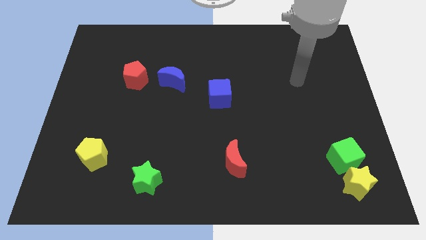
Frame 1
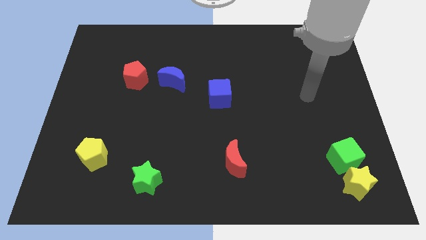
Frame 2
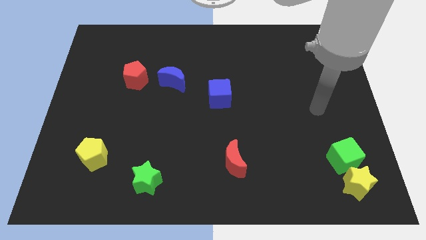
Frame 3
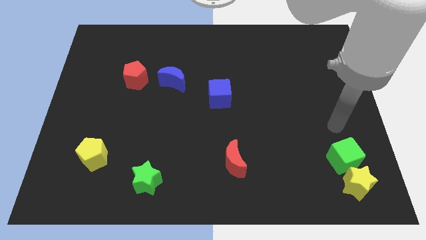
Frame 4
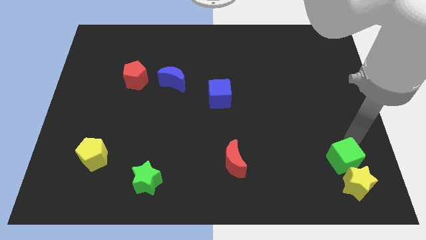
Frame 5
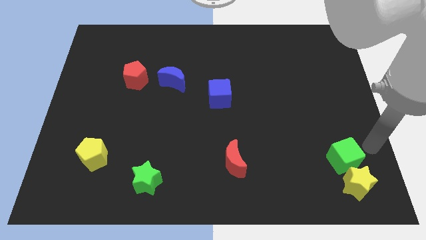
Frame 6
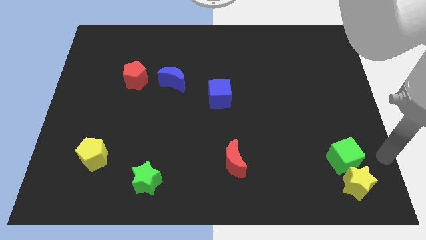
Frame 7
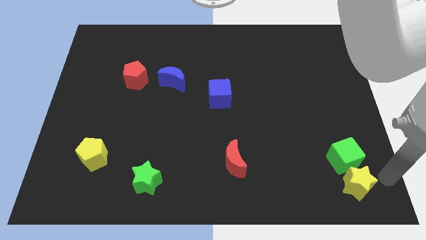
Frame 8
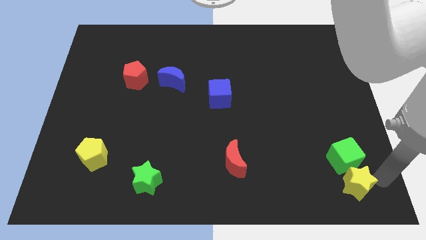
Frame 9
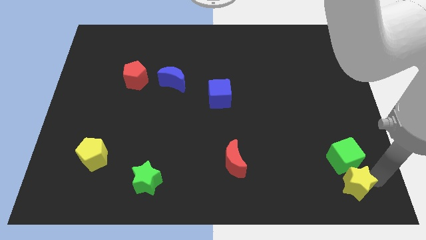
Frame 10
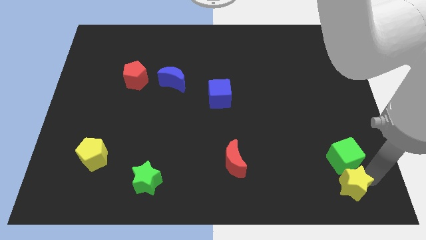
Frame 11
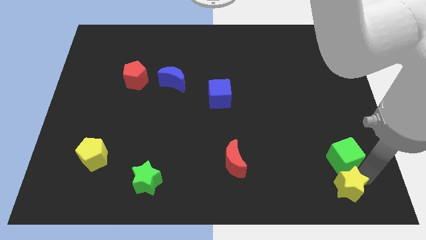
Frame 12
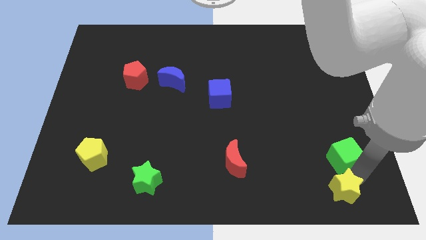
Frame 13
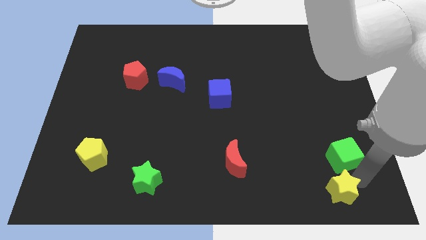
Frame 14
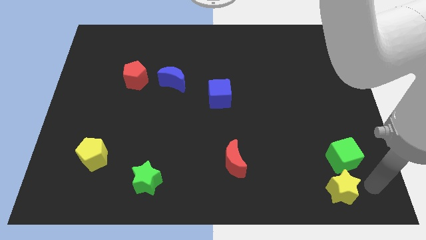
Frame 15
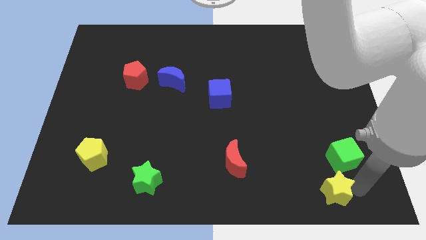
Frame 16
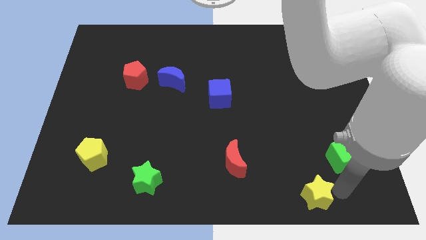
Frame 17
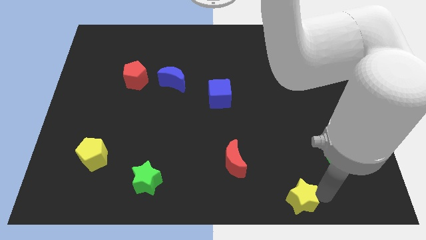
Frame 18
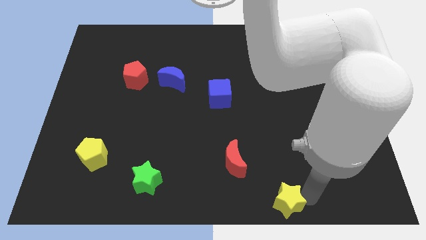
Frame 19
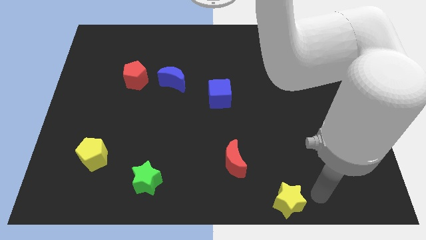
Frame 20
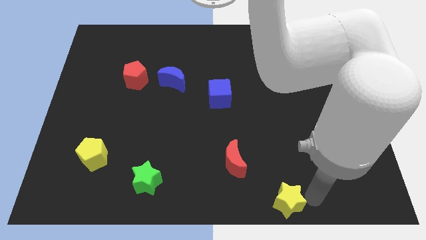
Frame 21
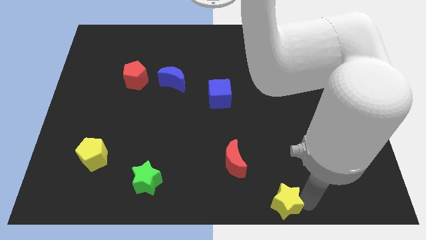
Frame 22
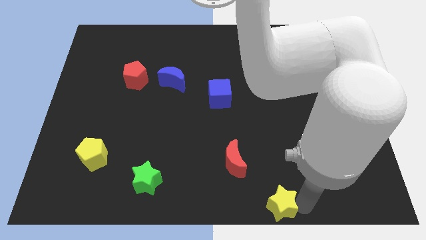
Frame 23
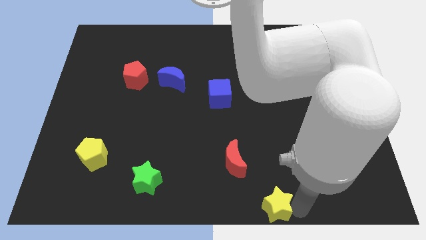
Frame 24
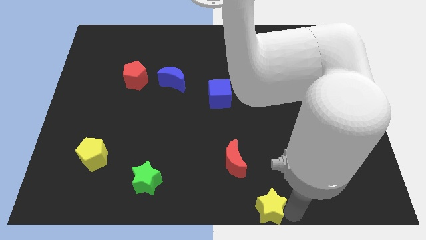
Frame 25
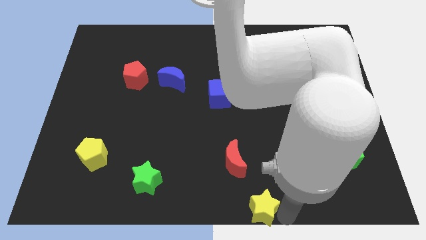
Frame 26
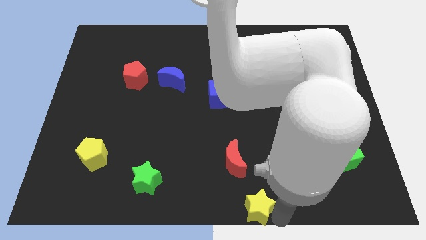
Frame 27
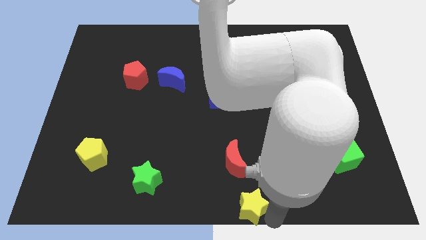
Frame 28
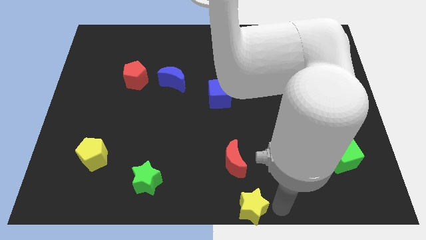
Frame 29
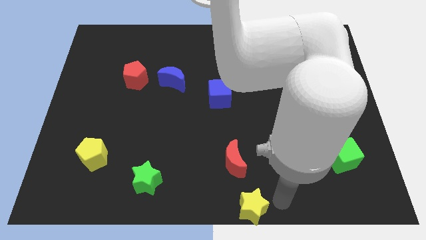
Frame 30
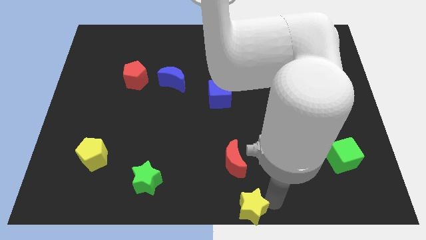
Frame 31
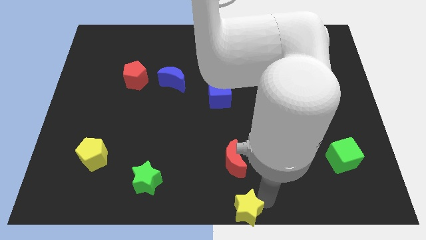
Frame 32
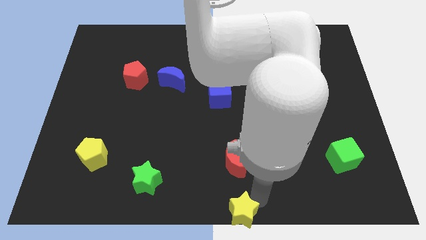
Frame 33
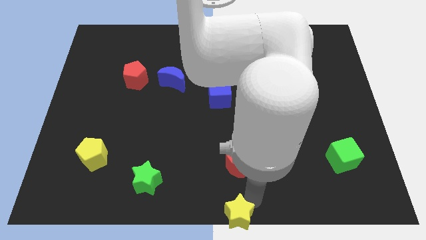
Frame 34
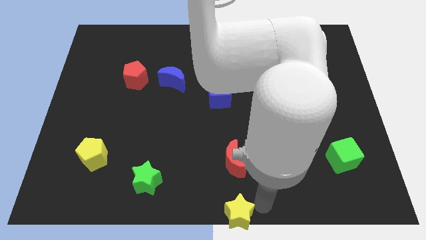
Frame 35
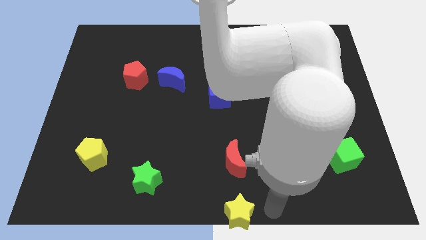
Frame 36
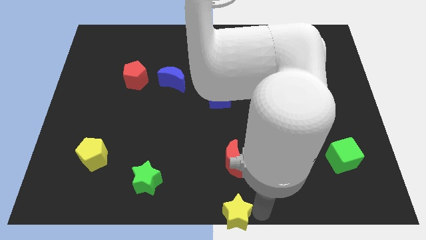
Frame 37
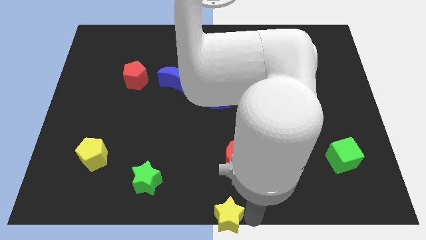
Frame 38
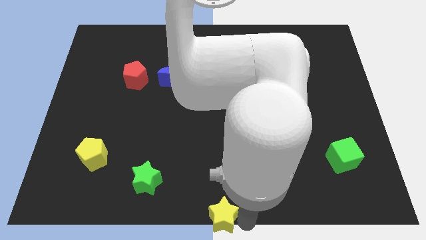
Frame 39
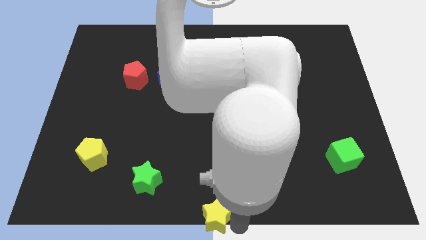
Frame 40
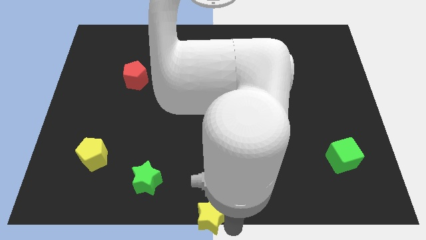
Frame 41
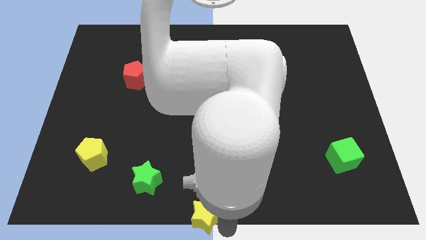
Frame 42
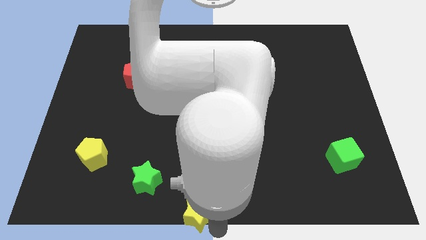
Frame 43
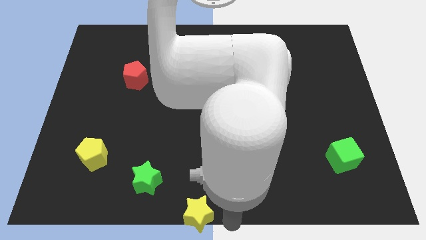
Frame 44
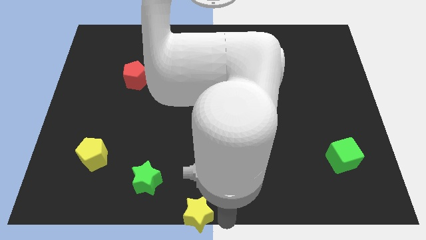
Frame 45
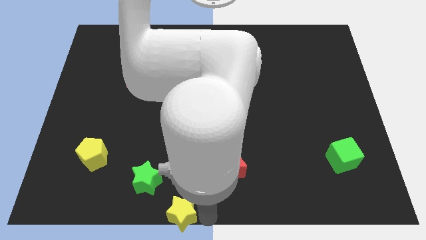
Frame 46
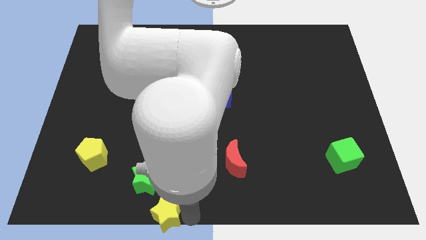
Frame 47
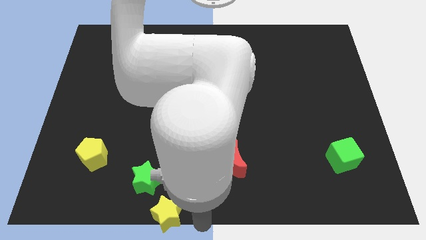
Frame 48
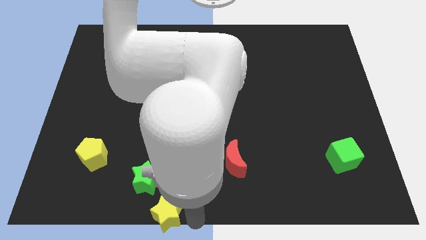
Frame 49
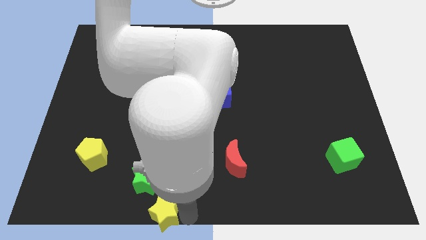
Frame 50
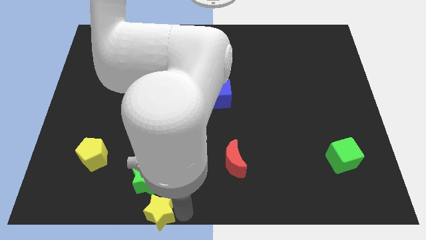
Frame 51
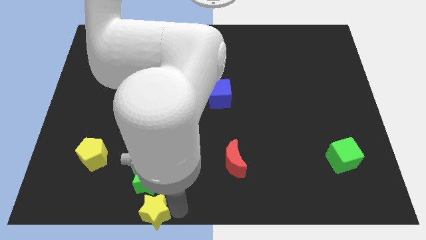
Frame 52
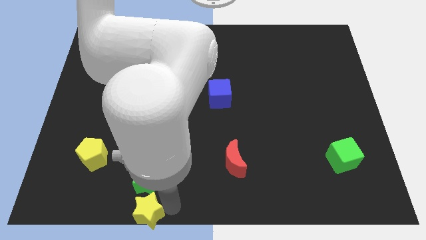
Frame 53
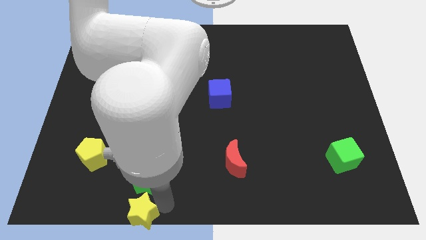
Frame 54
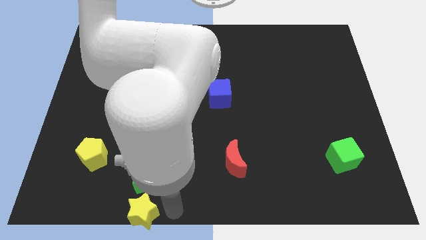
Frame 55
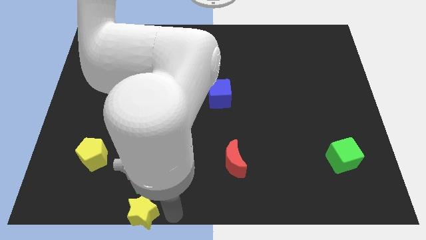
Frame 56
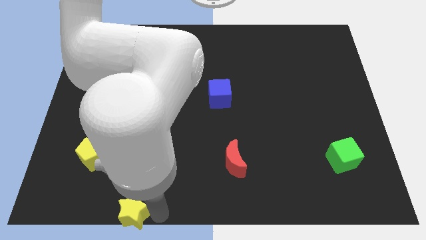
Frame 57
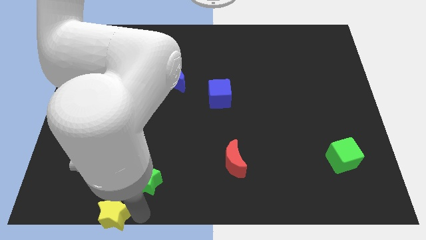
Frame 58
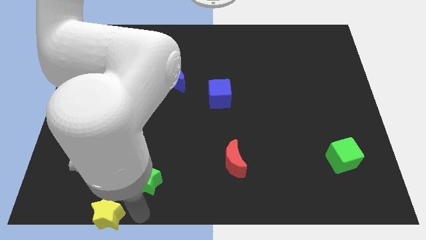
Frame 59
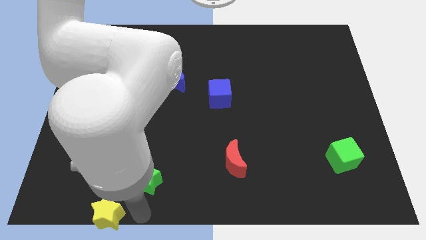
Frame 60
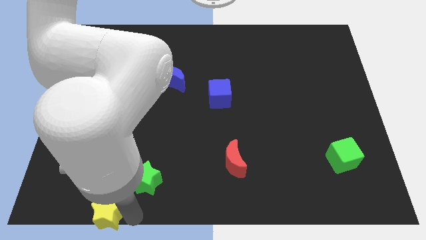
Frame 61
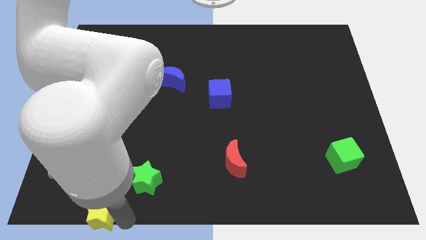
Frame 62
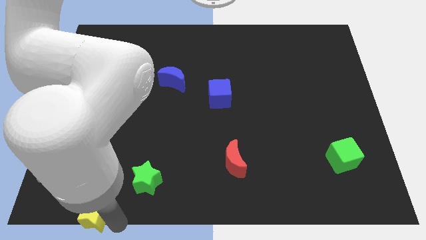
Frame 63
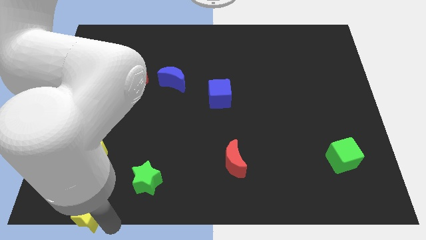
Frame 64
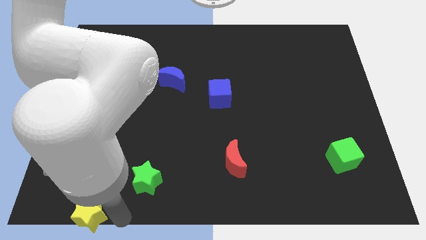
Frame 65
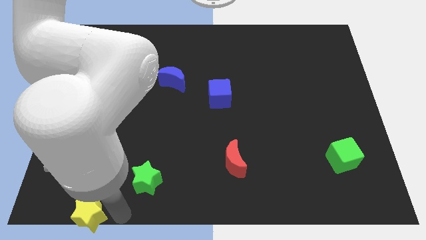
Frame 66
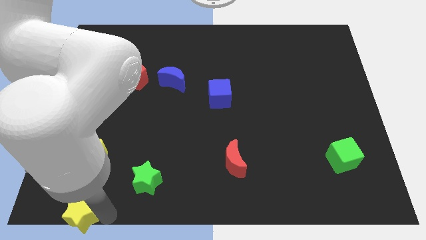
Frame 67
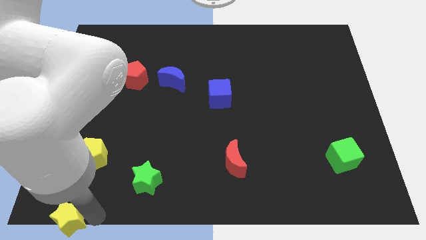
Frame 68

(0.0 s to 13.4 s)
put the yellow star to the bottom left of the board

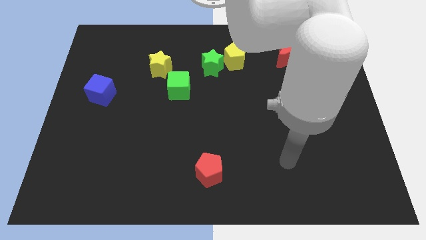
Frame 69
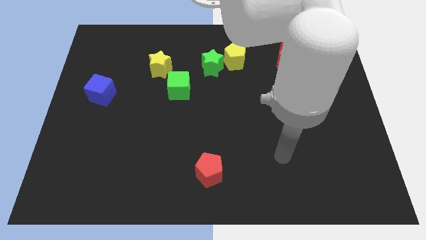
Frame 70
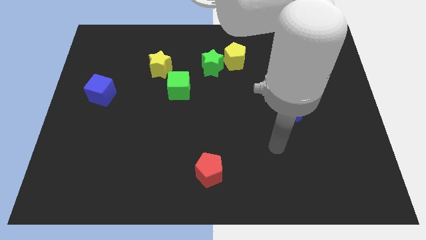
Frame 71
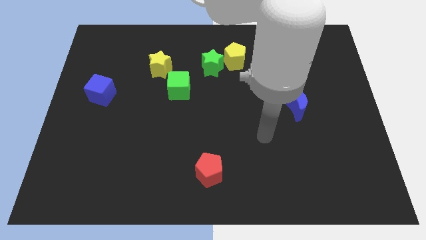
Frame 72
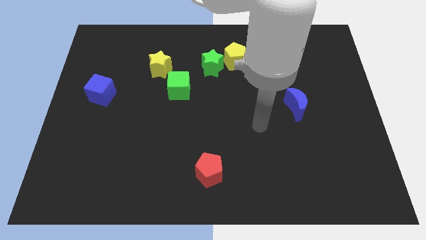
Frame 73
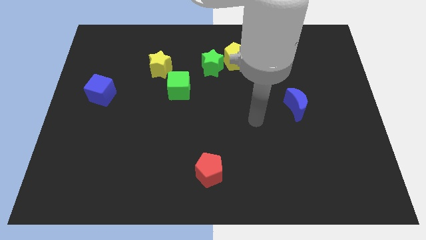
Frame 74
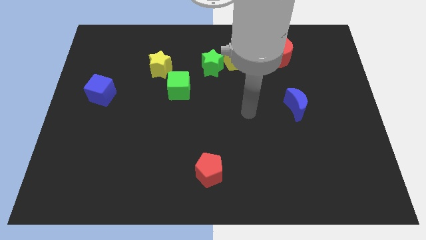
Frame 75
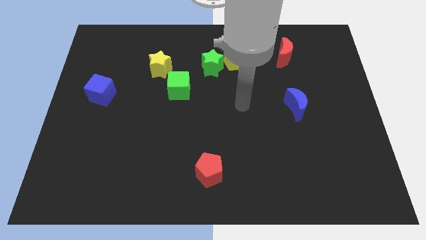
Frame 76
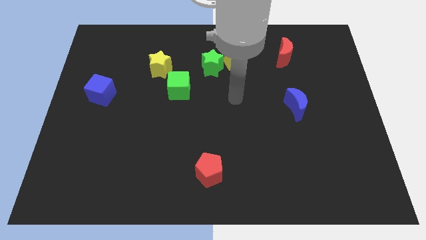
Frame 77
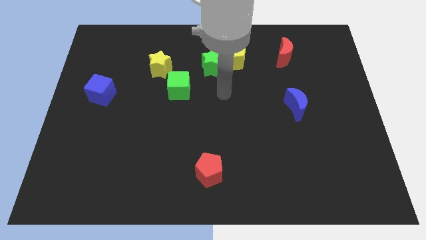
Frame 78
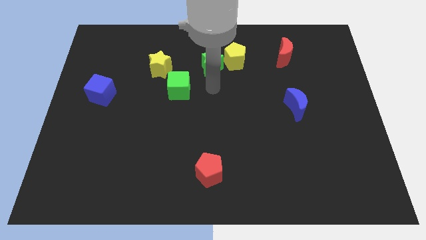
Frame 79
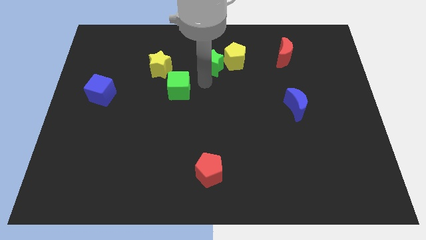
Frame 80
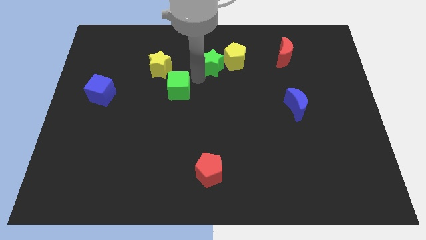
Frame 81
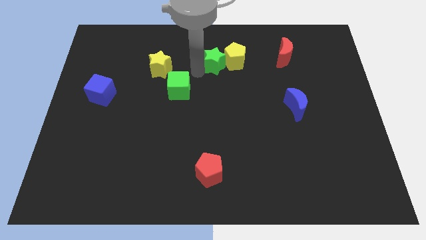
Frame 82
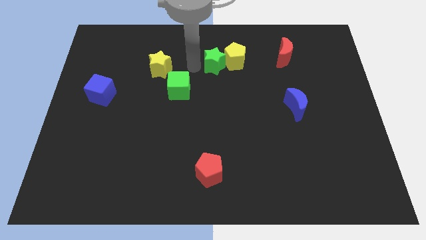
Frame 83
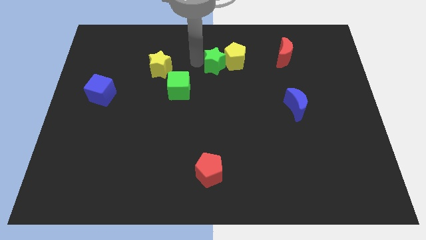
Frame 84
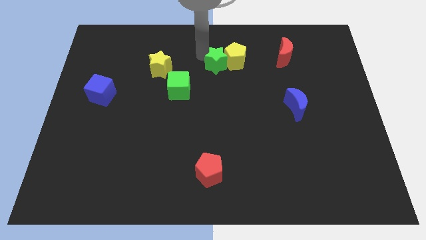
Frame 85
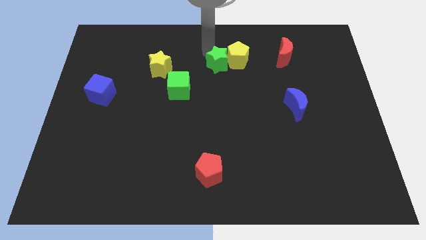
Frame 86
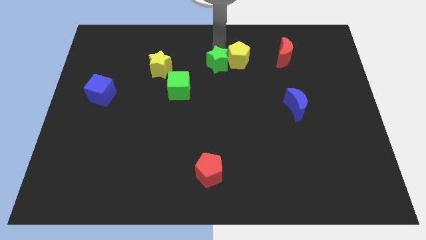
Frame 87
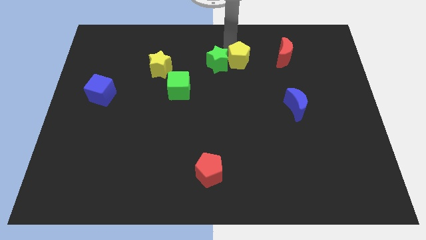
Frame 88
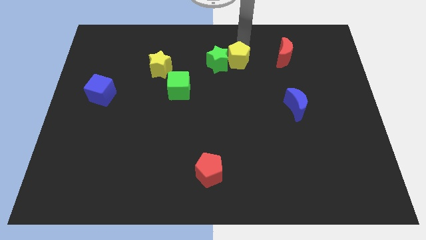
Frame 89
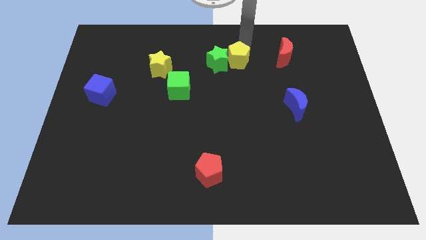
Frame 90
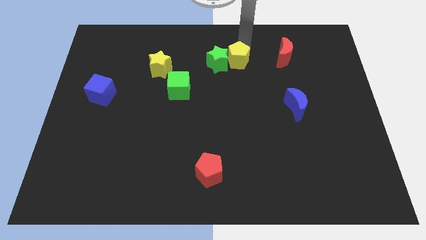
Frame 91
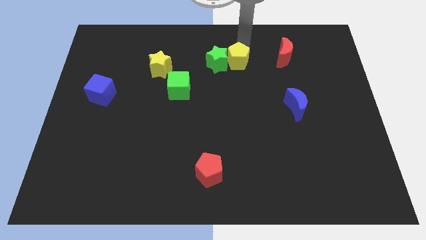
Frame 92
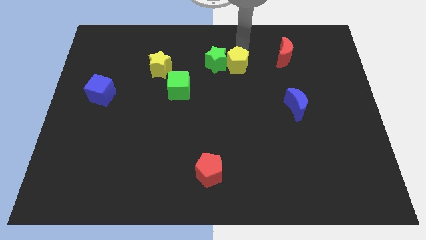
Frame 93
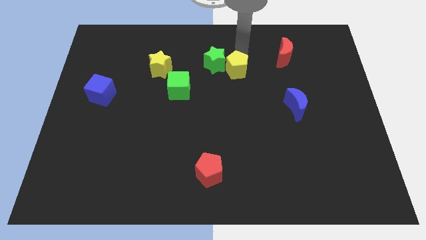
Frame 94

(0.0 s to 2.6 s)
move the yellow pentagon to the center
